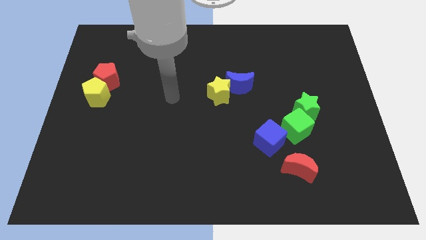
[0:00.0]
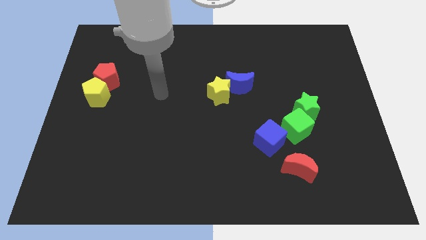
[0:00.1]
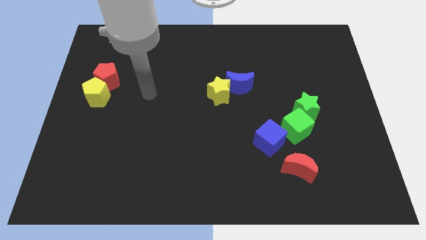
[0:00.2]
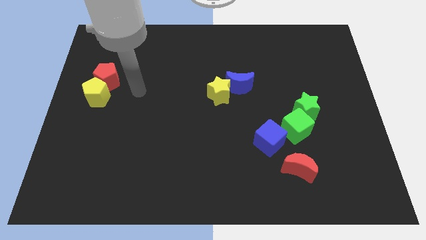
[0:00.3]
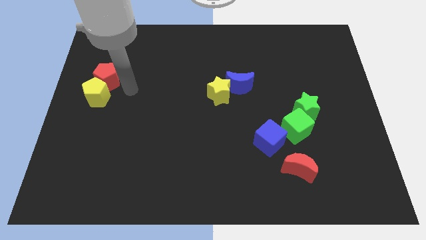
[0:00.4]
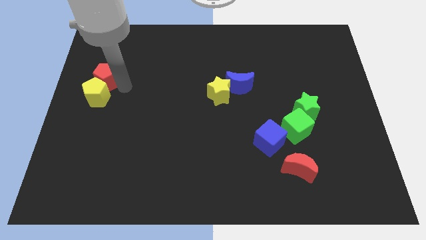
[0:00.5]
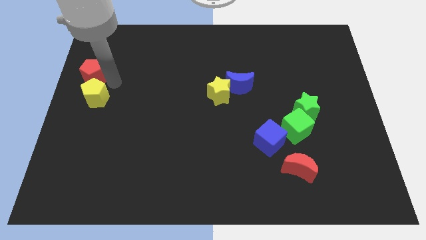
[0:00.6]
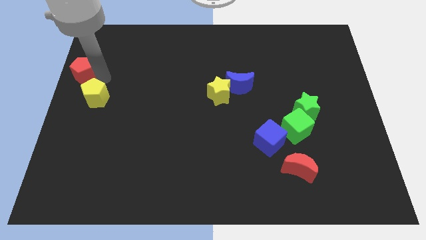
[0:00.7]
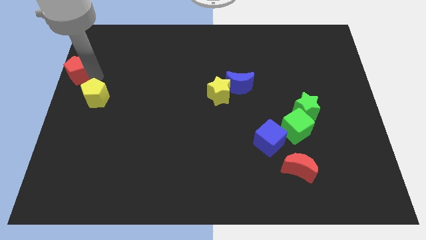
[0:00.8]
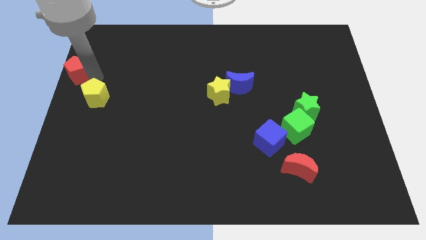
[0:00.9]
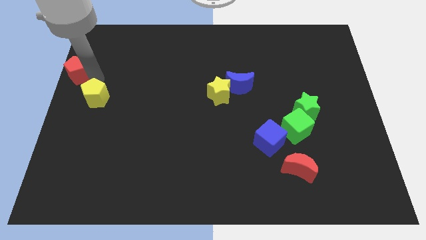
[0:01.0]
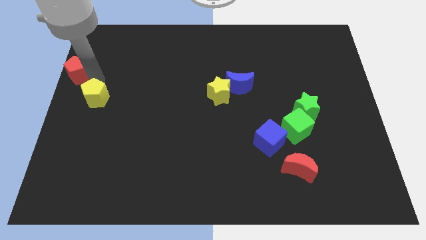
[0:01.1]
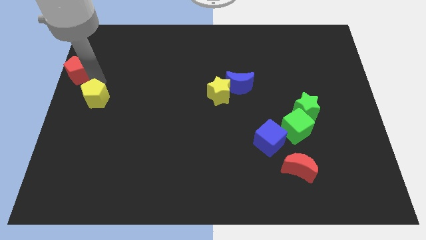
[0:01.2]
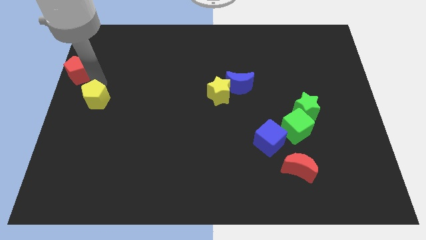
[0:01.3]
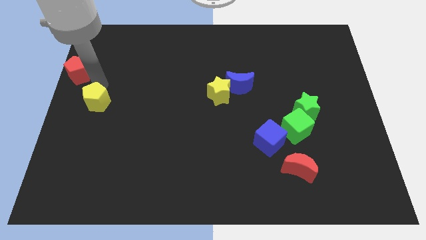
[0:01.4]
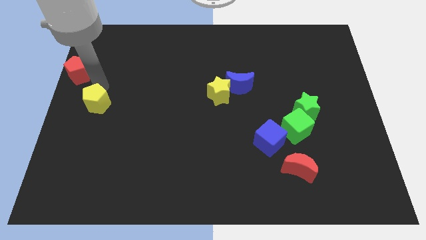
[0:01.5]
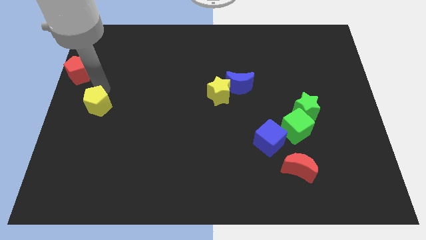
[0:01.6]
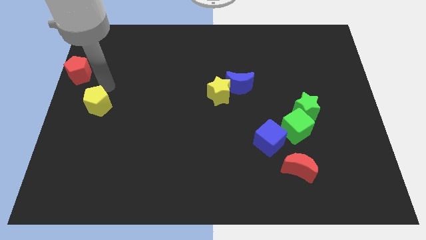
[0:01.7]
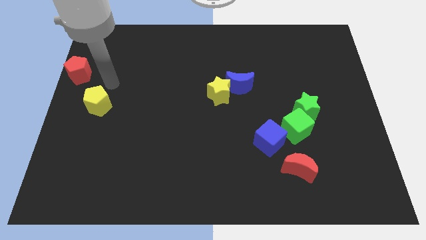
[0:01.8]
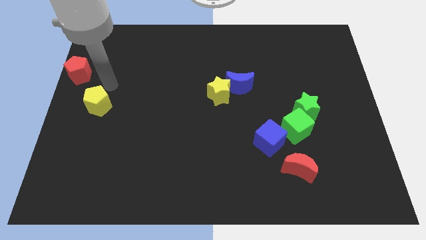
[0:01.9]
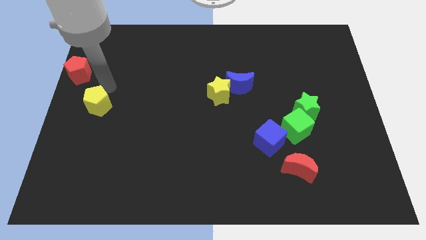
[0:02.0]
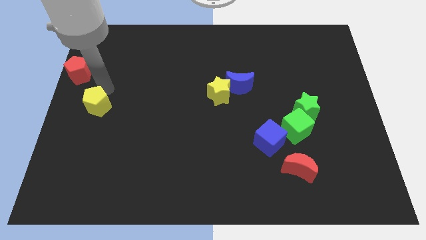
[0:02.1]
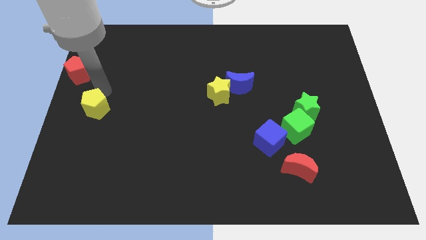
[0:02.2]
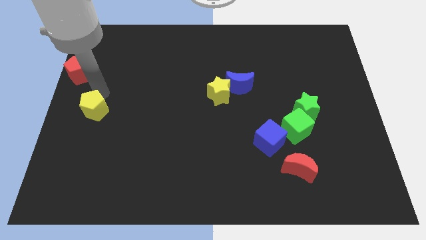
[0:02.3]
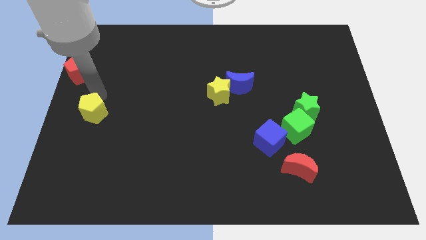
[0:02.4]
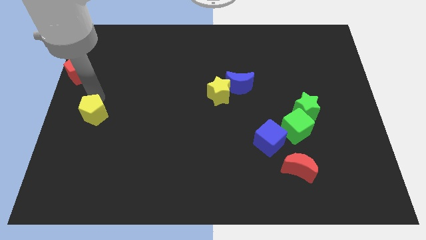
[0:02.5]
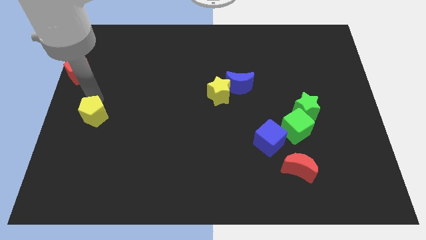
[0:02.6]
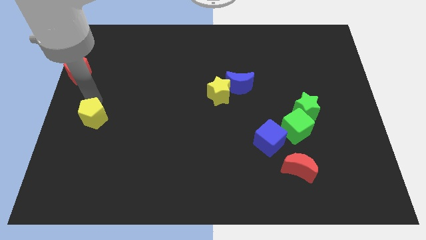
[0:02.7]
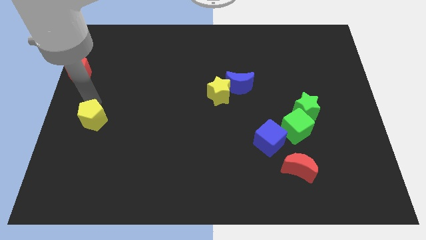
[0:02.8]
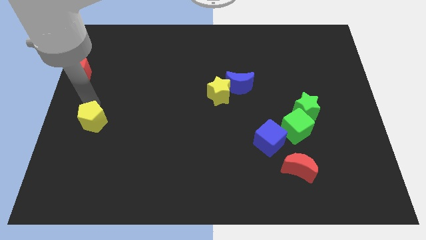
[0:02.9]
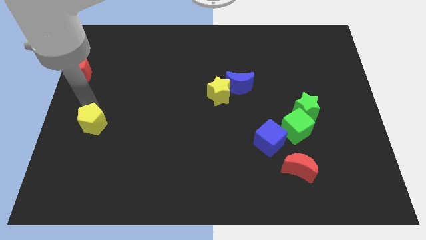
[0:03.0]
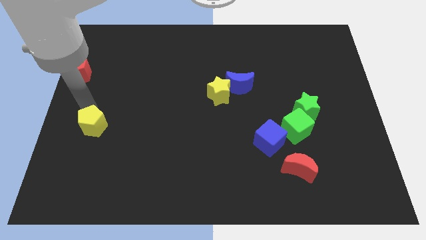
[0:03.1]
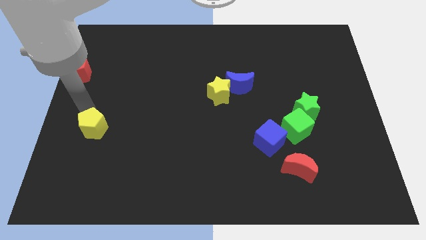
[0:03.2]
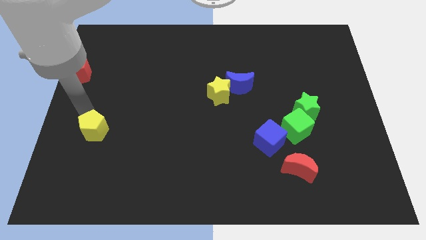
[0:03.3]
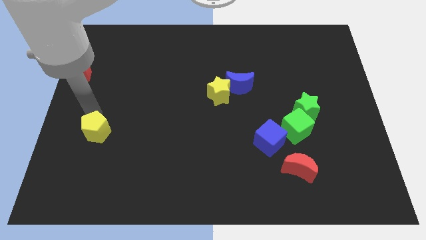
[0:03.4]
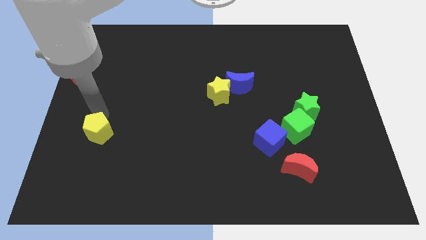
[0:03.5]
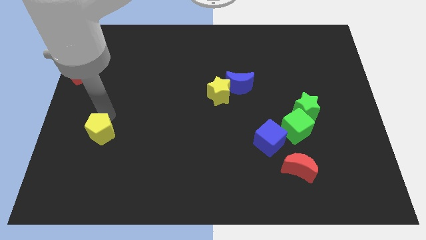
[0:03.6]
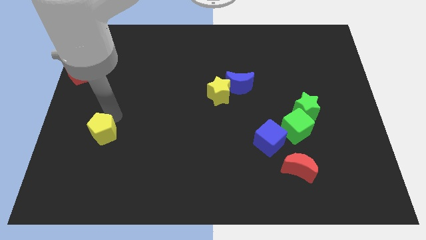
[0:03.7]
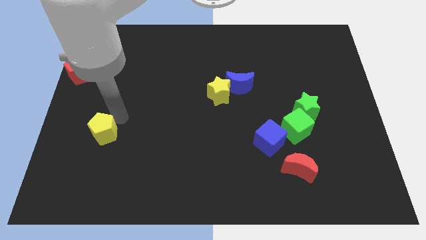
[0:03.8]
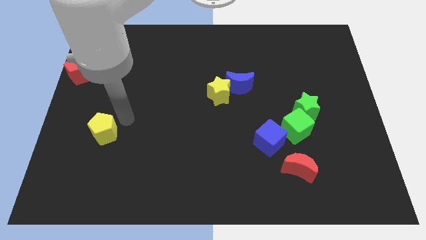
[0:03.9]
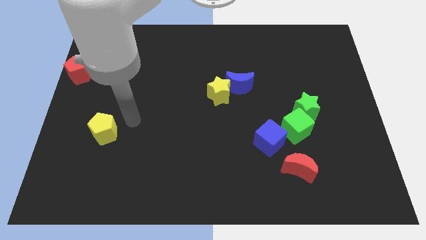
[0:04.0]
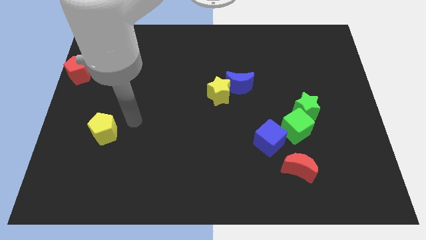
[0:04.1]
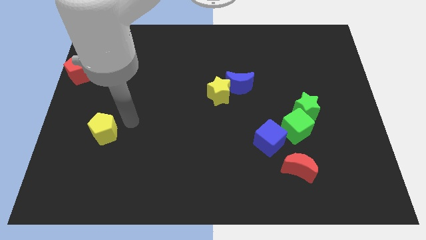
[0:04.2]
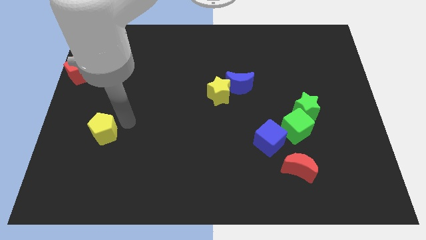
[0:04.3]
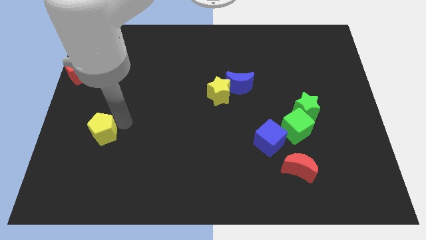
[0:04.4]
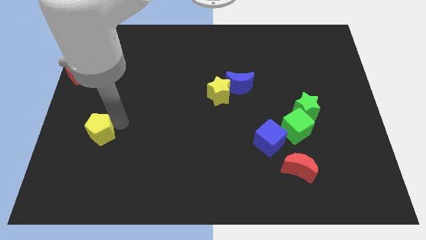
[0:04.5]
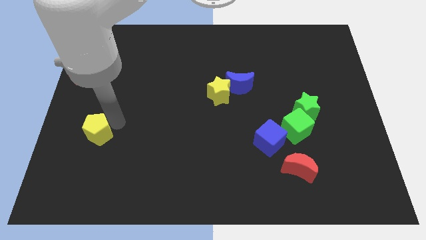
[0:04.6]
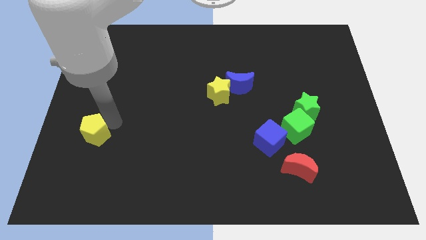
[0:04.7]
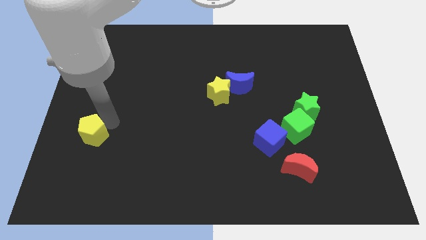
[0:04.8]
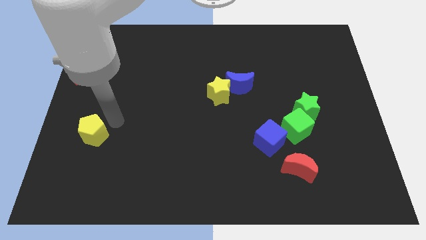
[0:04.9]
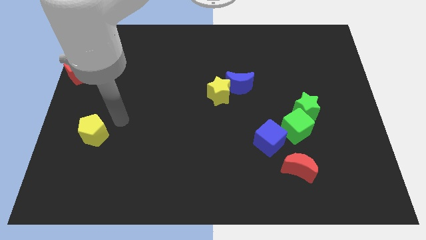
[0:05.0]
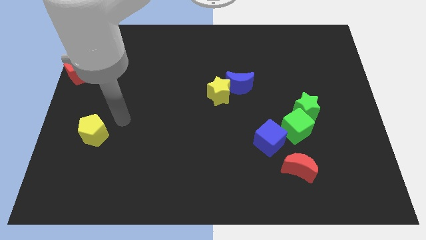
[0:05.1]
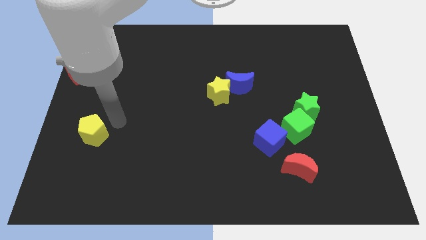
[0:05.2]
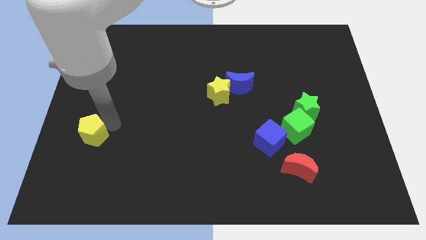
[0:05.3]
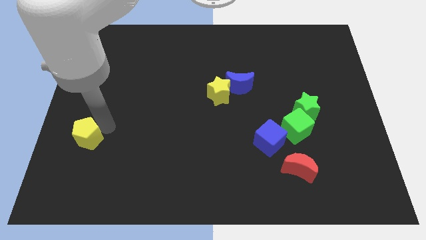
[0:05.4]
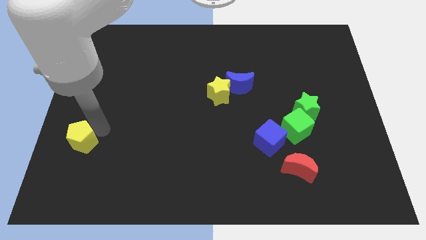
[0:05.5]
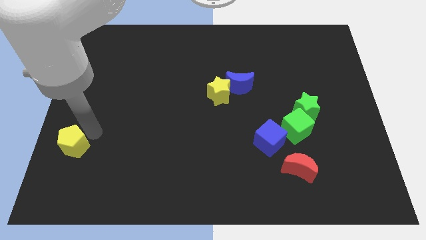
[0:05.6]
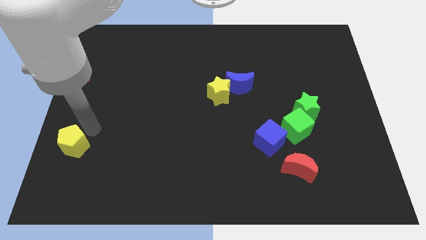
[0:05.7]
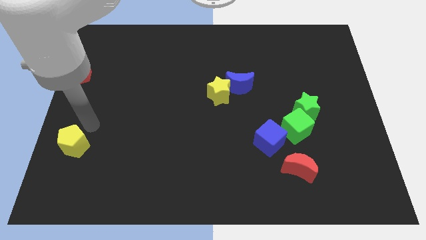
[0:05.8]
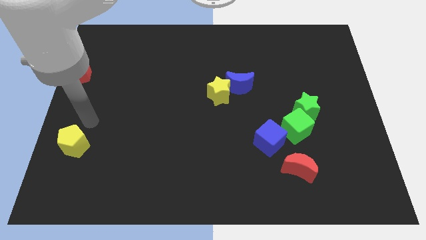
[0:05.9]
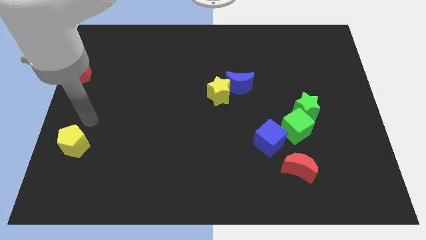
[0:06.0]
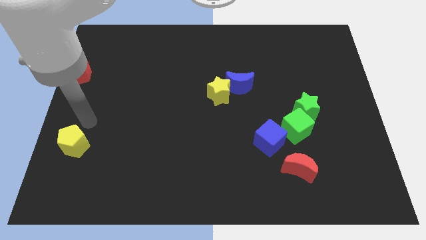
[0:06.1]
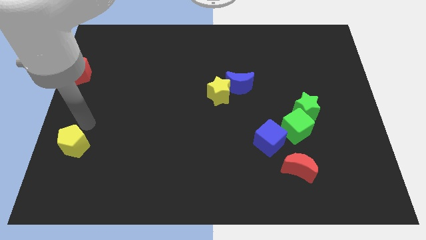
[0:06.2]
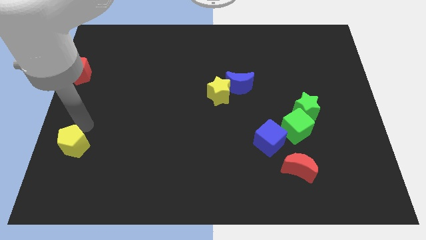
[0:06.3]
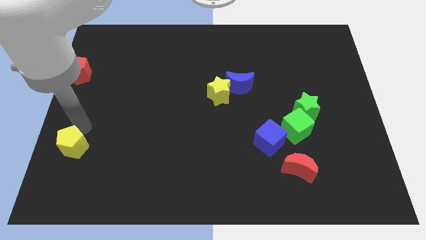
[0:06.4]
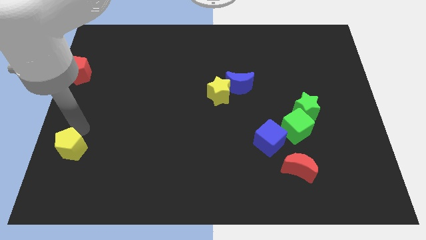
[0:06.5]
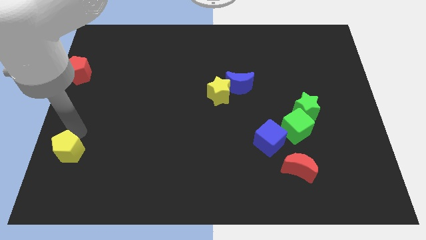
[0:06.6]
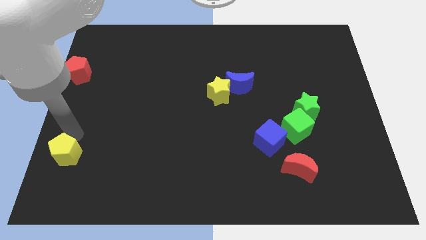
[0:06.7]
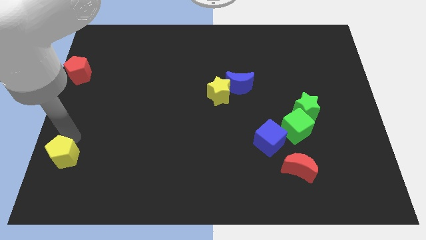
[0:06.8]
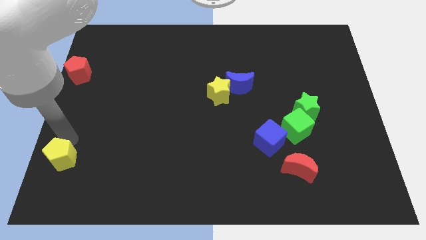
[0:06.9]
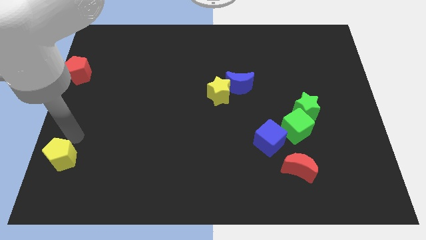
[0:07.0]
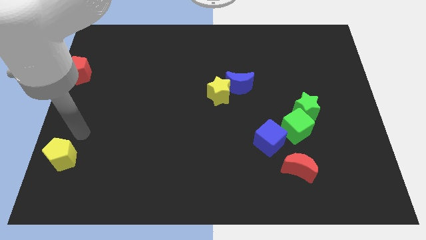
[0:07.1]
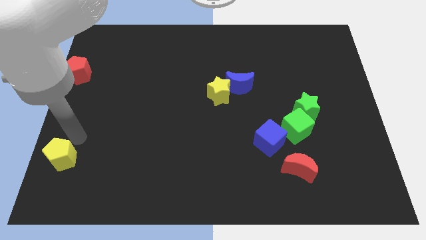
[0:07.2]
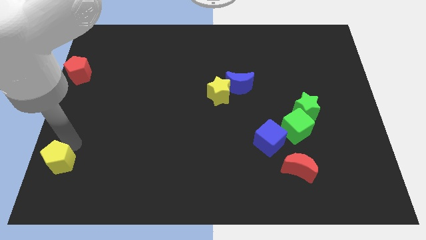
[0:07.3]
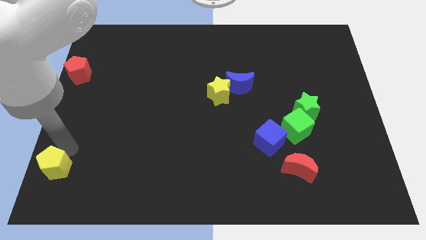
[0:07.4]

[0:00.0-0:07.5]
put the yellow pentagon to the bottom left corner
